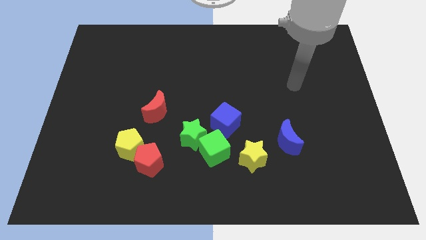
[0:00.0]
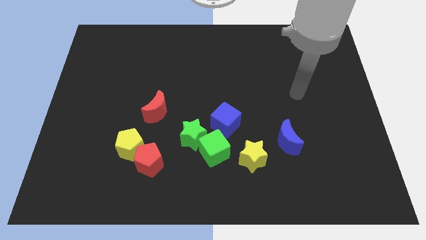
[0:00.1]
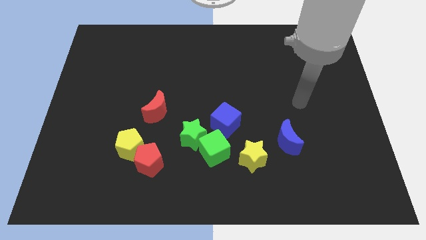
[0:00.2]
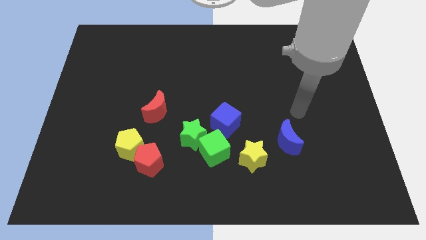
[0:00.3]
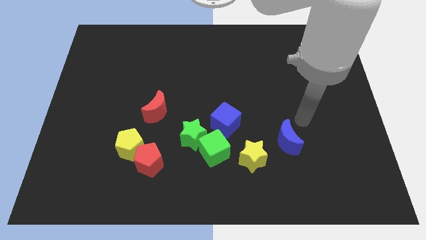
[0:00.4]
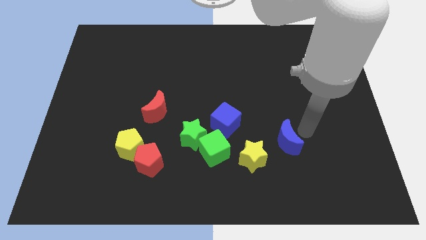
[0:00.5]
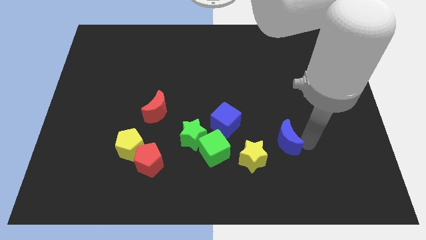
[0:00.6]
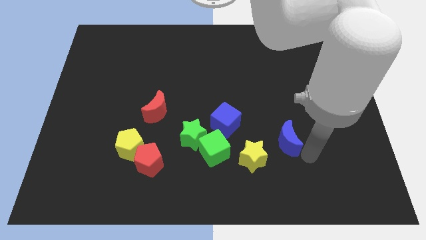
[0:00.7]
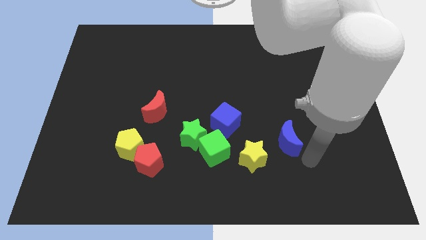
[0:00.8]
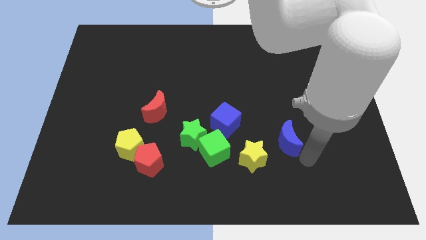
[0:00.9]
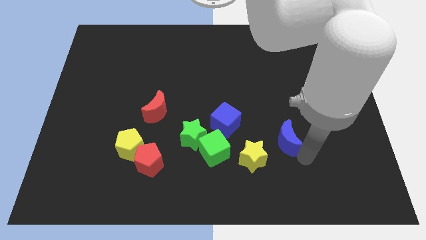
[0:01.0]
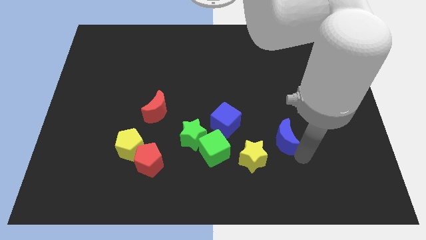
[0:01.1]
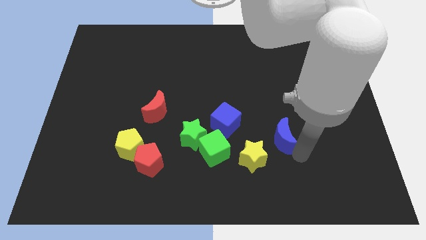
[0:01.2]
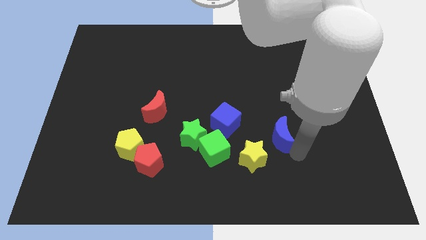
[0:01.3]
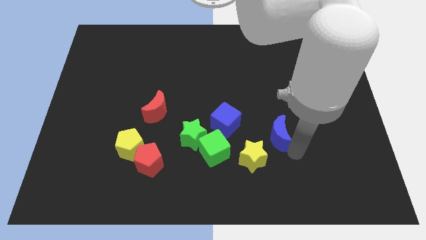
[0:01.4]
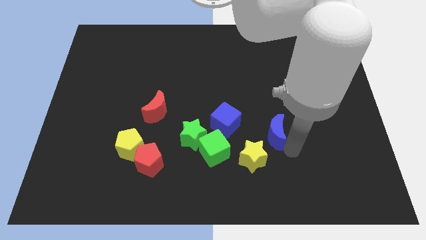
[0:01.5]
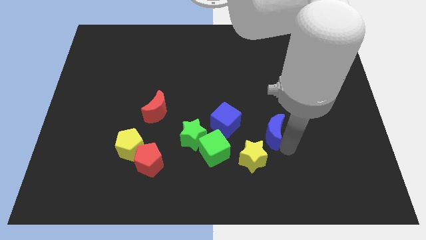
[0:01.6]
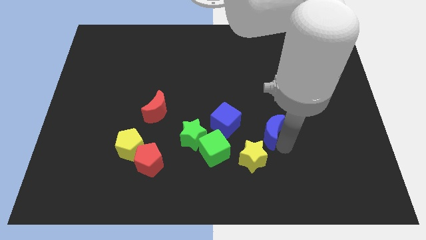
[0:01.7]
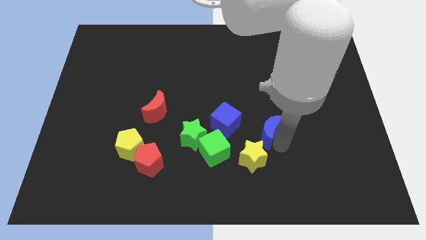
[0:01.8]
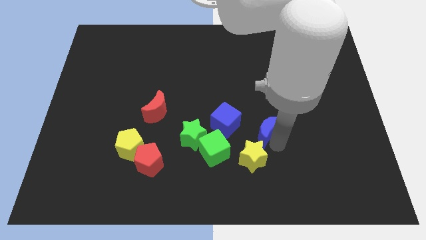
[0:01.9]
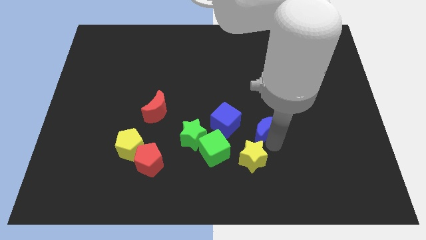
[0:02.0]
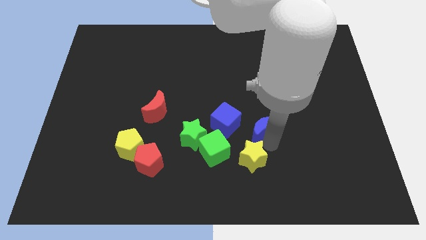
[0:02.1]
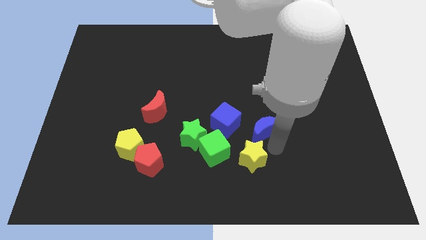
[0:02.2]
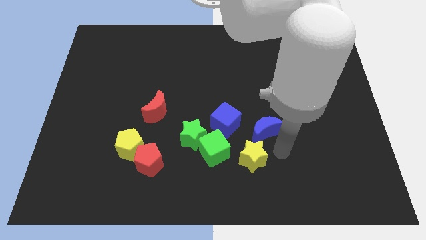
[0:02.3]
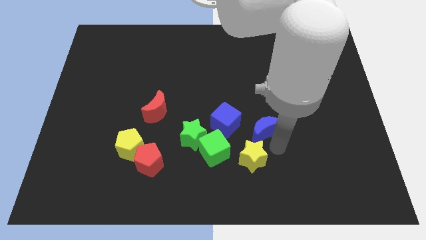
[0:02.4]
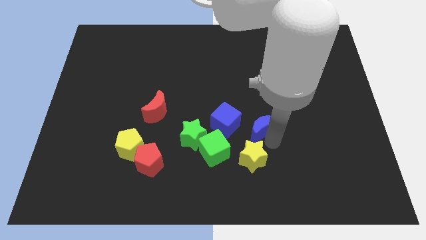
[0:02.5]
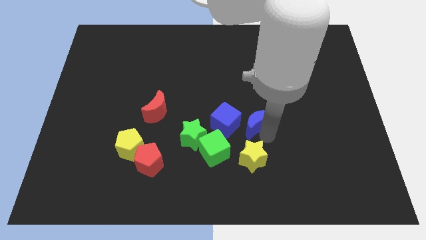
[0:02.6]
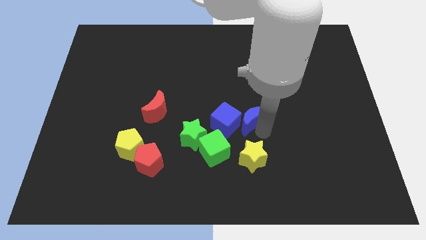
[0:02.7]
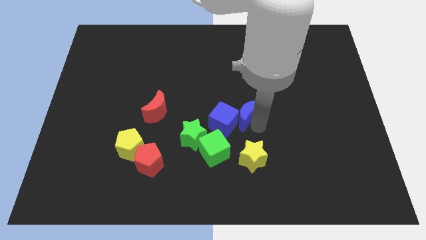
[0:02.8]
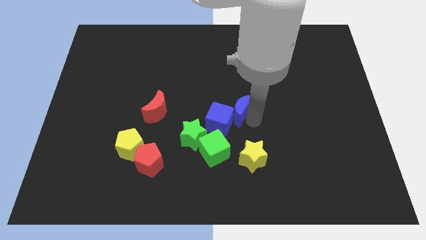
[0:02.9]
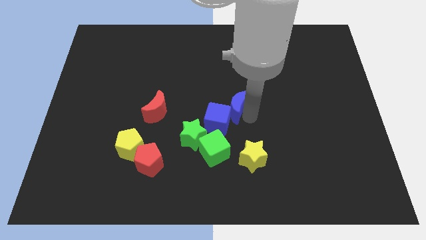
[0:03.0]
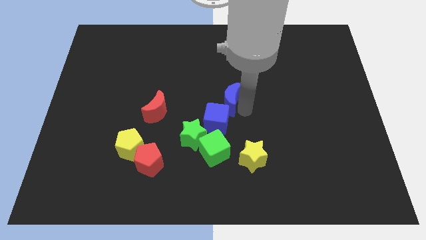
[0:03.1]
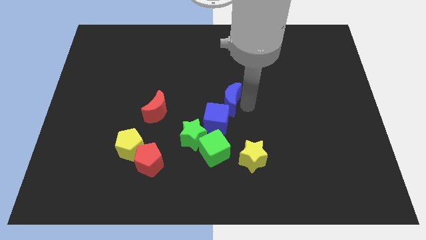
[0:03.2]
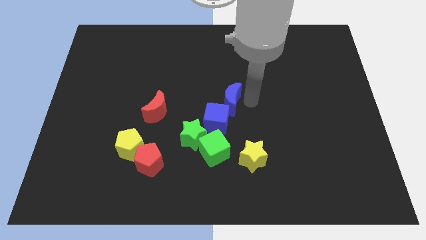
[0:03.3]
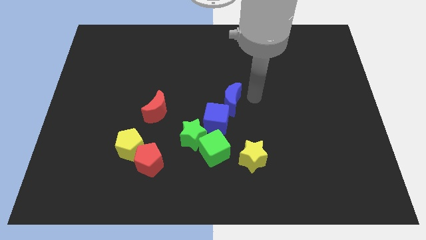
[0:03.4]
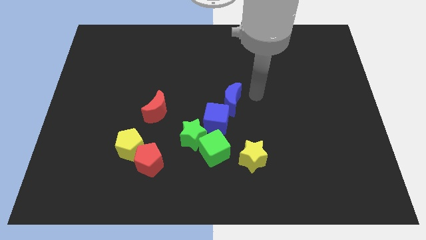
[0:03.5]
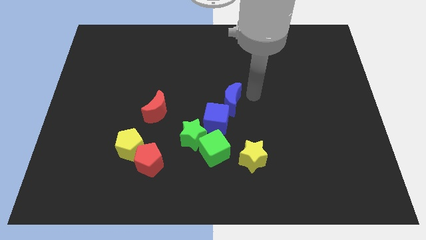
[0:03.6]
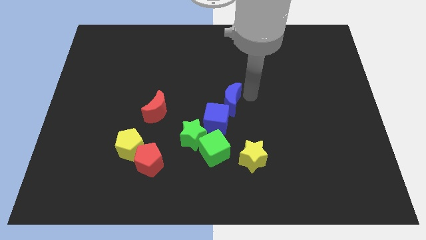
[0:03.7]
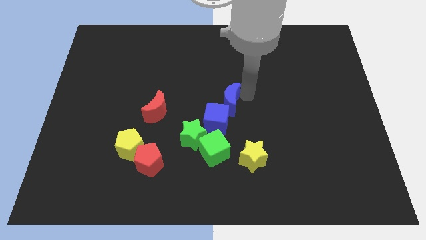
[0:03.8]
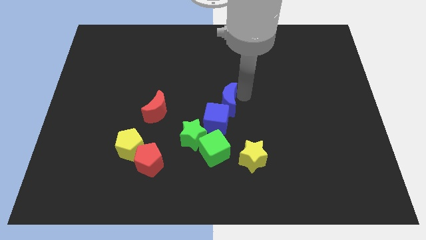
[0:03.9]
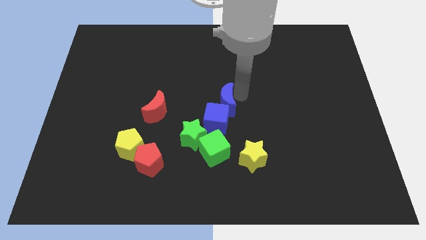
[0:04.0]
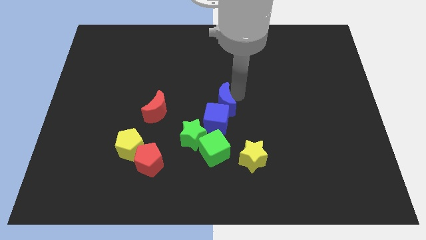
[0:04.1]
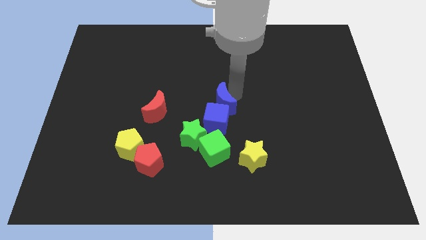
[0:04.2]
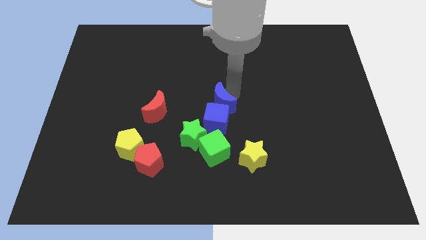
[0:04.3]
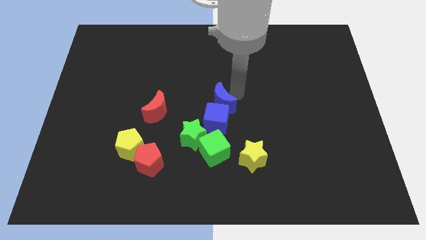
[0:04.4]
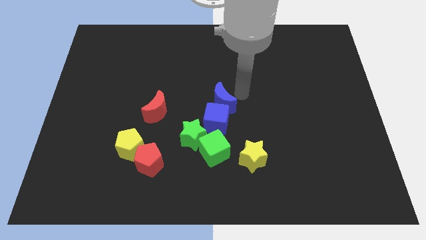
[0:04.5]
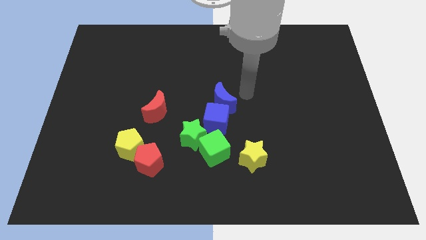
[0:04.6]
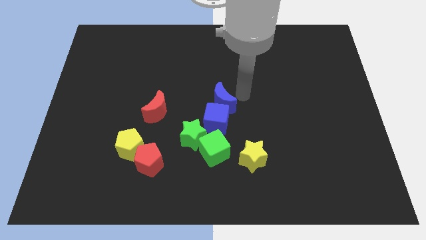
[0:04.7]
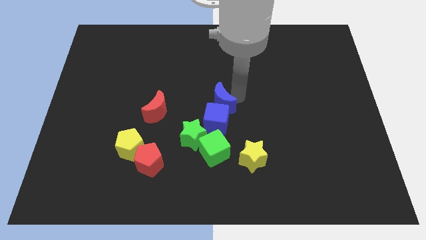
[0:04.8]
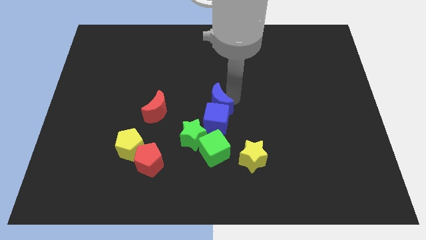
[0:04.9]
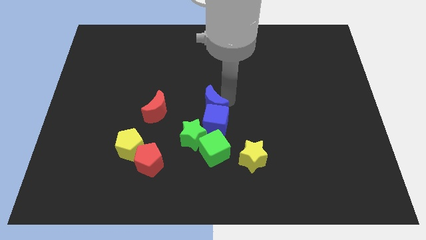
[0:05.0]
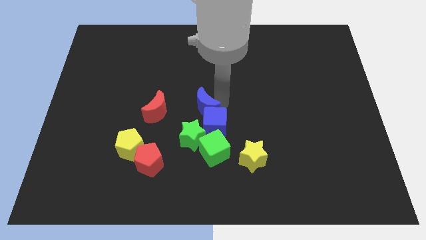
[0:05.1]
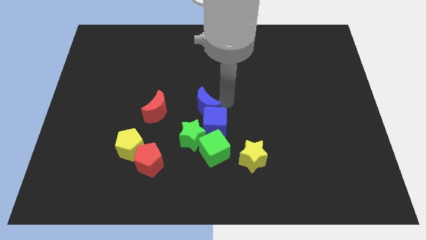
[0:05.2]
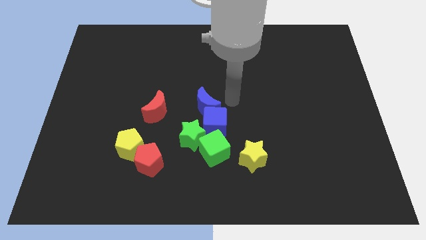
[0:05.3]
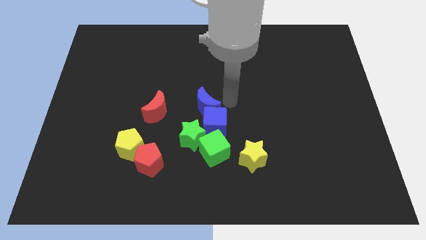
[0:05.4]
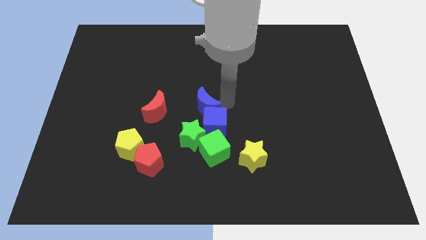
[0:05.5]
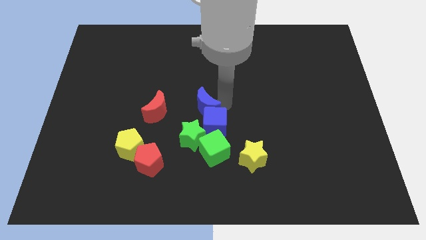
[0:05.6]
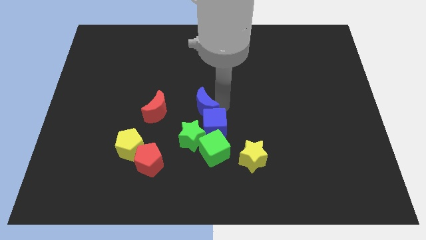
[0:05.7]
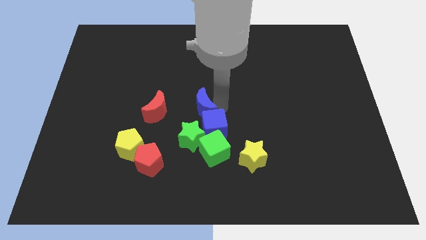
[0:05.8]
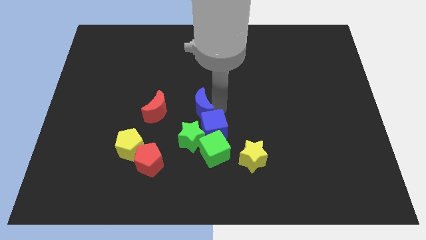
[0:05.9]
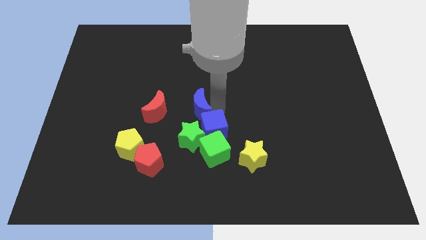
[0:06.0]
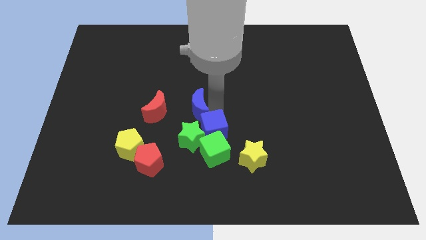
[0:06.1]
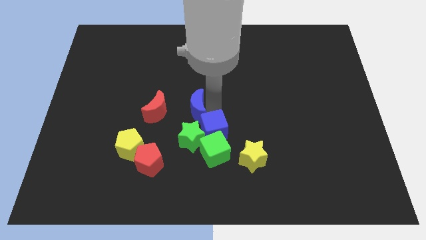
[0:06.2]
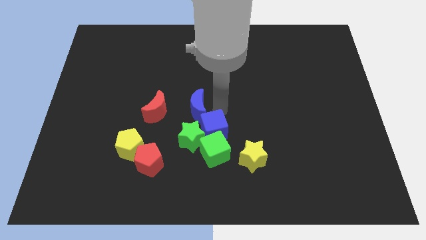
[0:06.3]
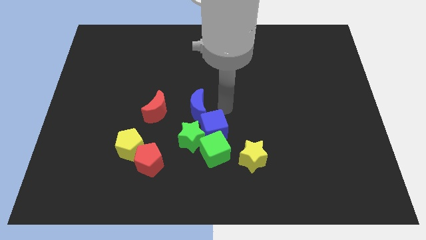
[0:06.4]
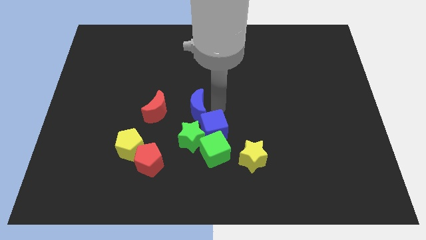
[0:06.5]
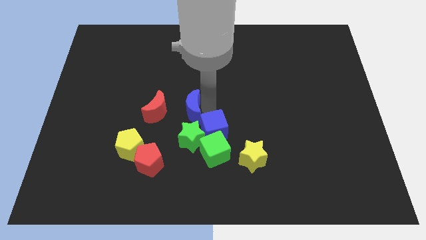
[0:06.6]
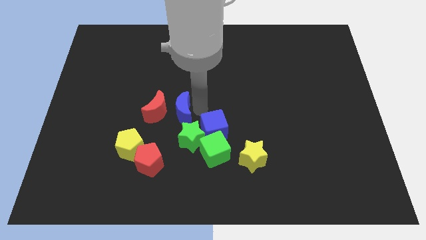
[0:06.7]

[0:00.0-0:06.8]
move the blue moon towards the red moon

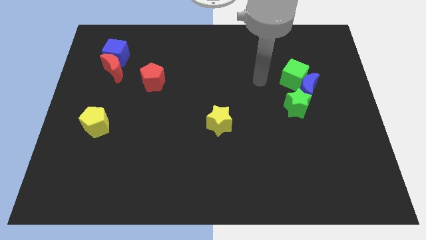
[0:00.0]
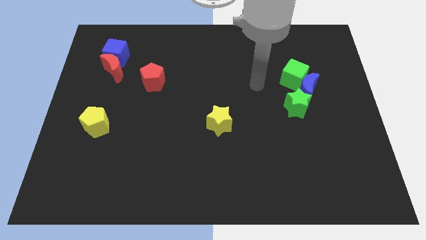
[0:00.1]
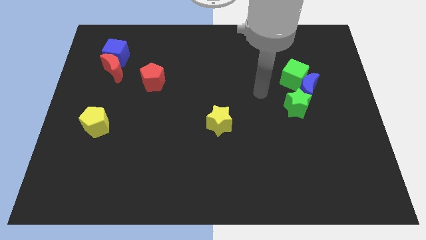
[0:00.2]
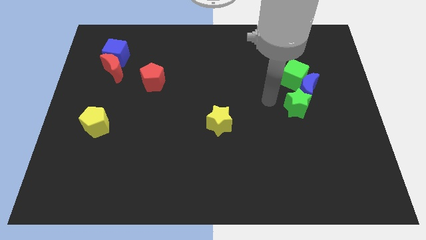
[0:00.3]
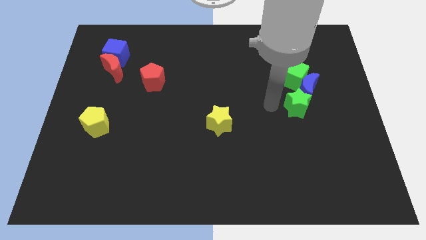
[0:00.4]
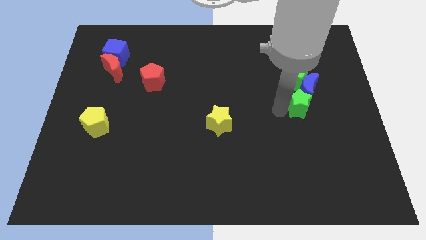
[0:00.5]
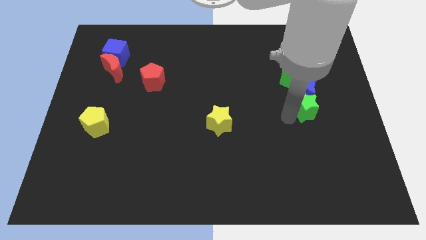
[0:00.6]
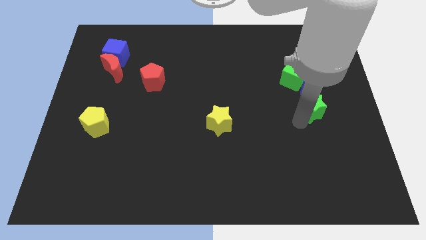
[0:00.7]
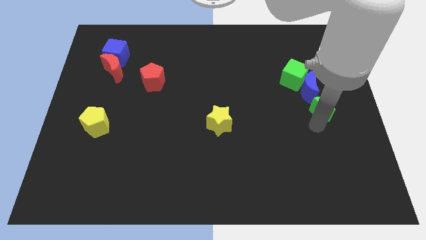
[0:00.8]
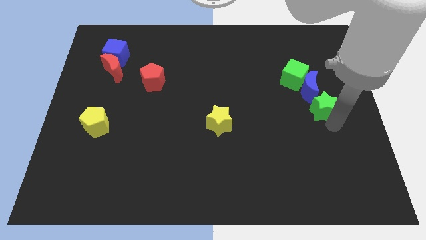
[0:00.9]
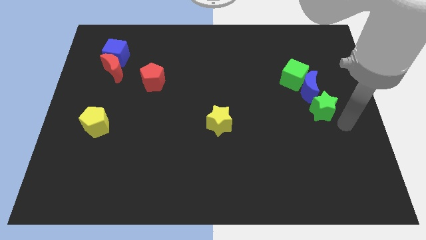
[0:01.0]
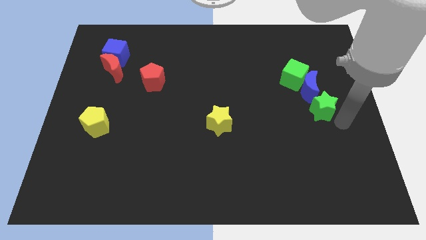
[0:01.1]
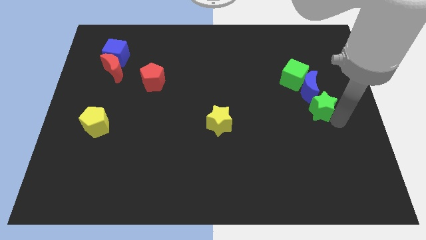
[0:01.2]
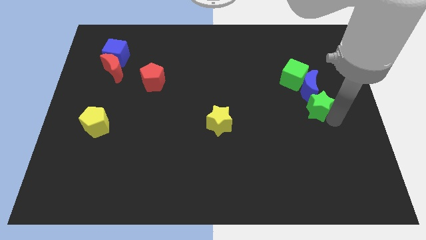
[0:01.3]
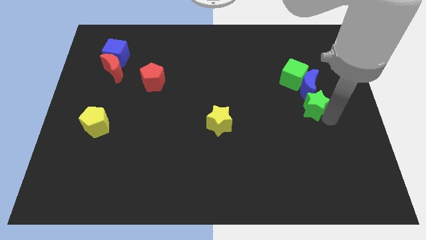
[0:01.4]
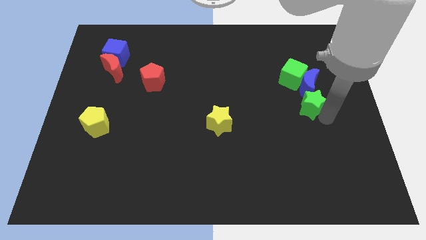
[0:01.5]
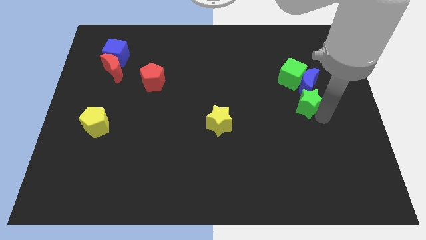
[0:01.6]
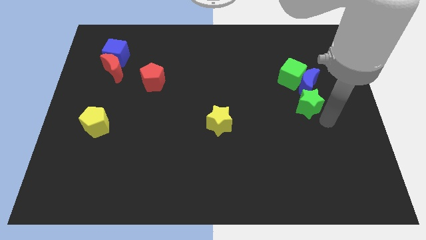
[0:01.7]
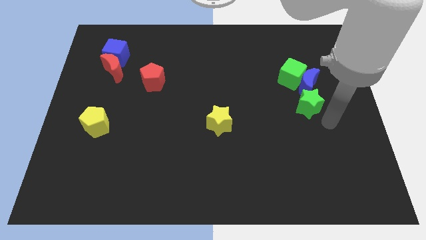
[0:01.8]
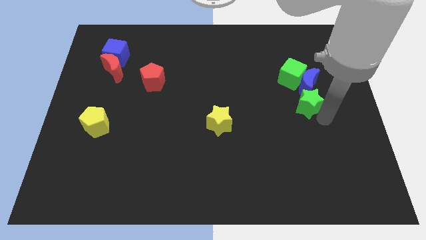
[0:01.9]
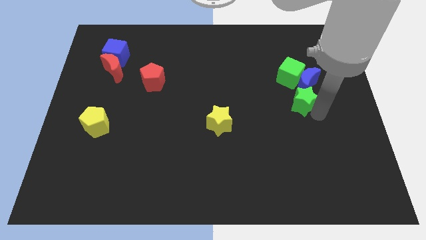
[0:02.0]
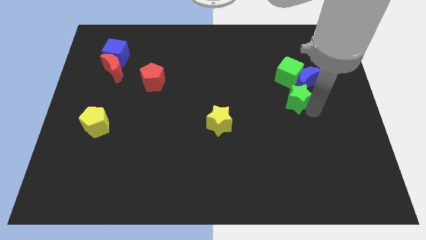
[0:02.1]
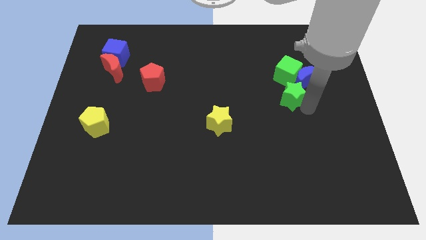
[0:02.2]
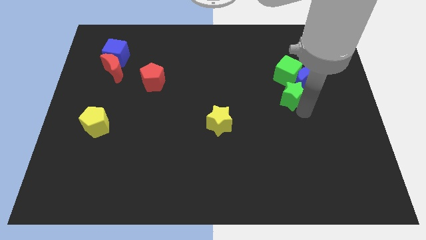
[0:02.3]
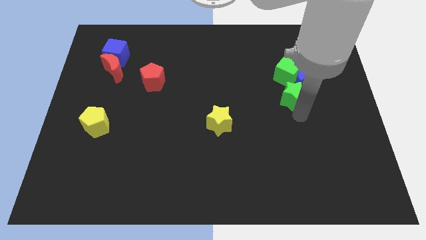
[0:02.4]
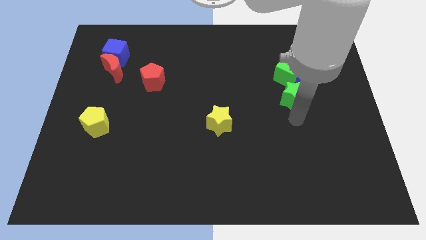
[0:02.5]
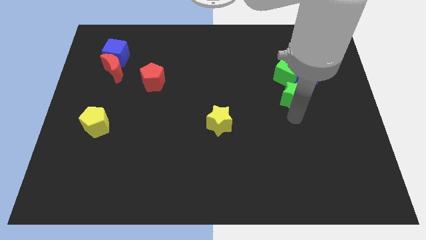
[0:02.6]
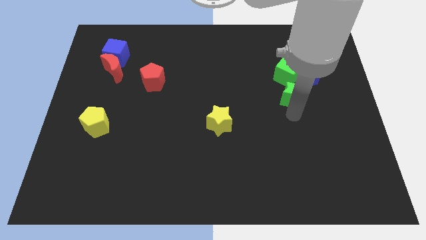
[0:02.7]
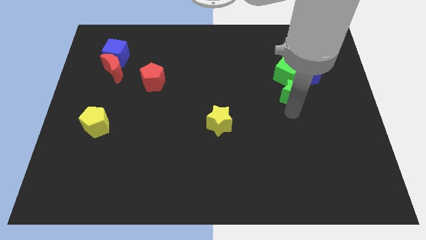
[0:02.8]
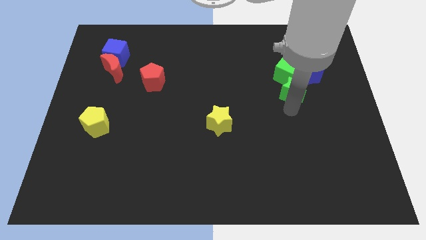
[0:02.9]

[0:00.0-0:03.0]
move the green star close to the green cube
